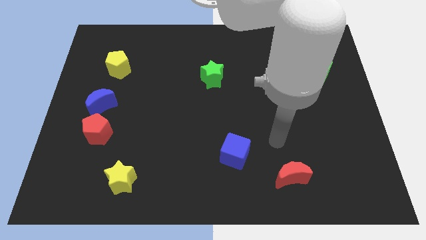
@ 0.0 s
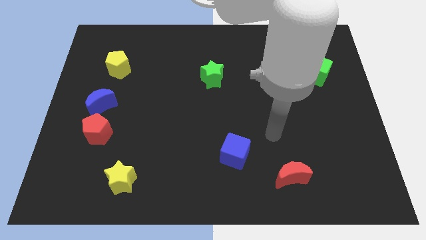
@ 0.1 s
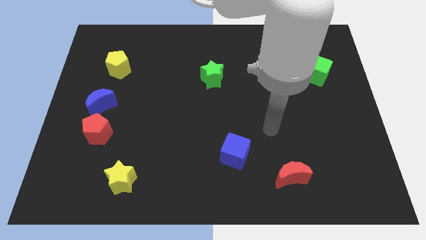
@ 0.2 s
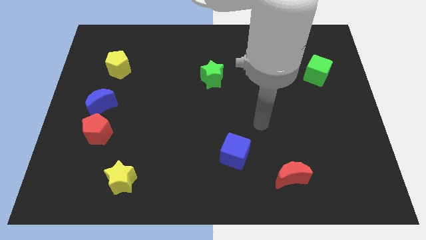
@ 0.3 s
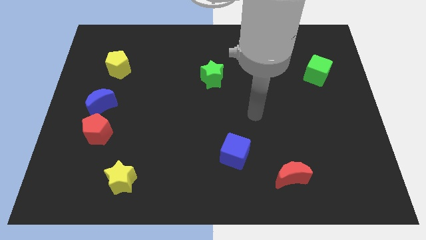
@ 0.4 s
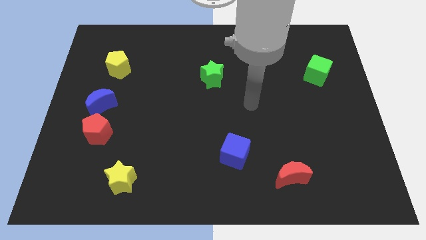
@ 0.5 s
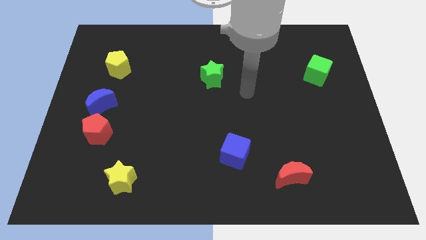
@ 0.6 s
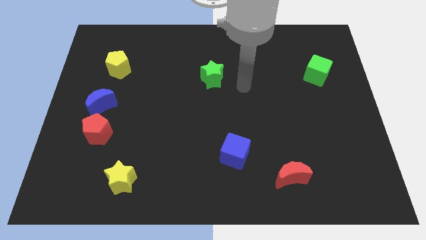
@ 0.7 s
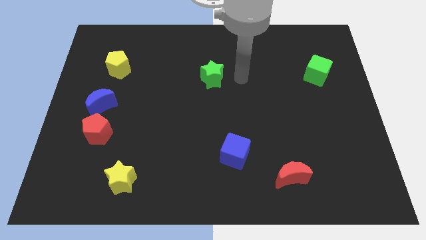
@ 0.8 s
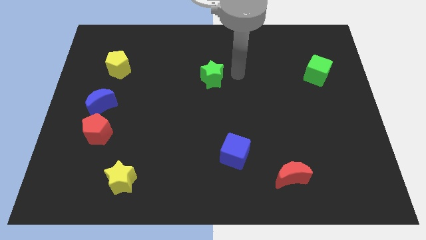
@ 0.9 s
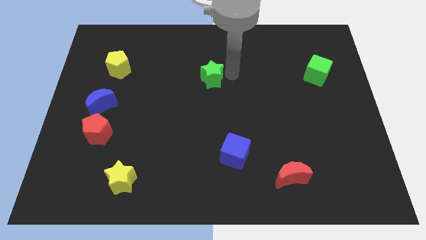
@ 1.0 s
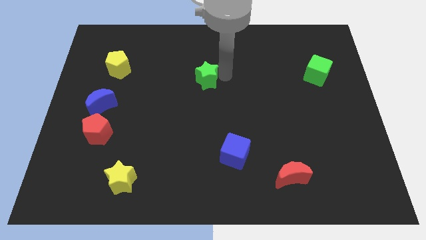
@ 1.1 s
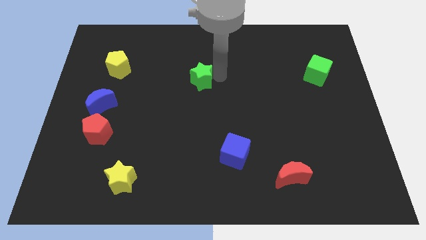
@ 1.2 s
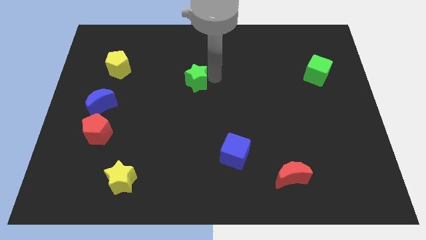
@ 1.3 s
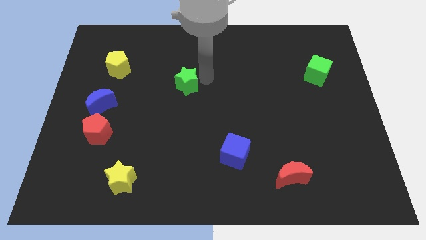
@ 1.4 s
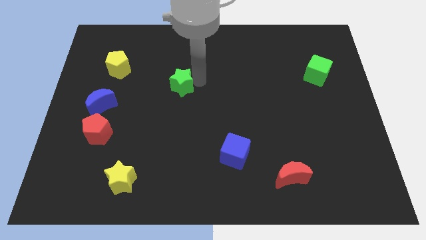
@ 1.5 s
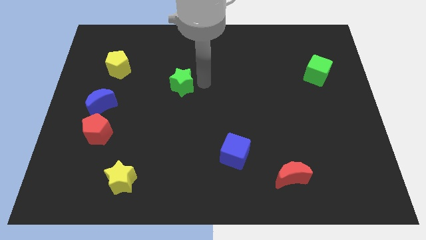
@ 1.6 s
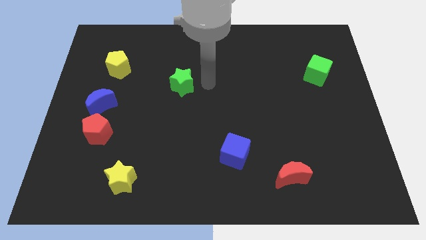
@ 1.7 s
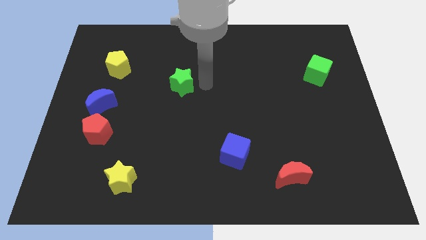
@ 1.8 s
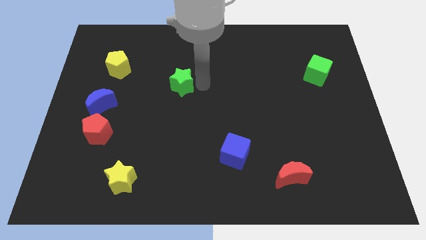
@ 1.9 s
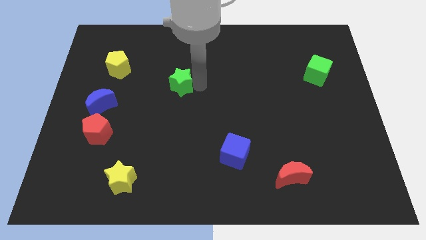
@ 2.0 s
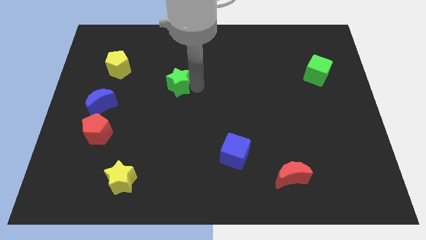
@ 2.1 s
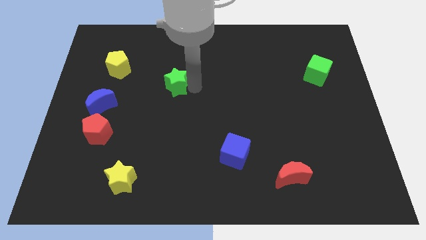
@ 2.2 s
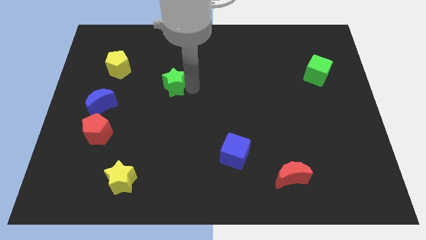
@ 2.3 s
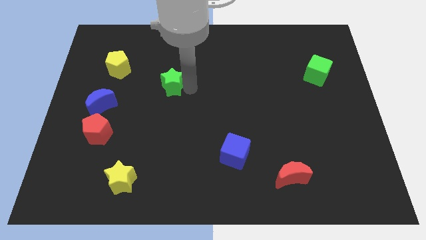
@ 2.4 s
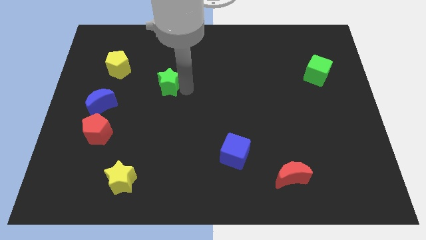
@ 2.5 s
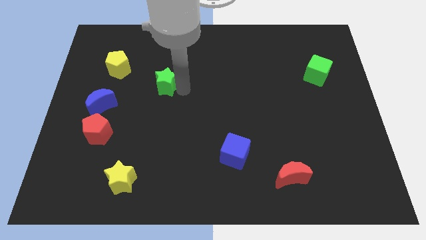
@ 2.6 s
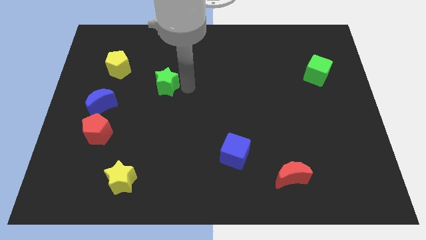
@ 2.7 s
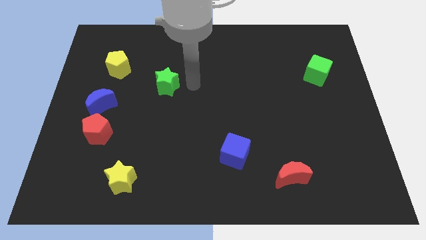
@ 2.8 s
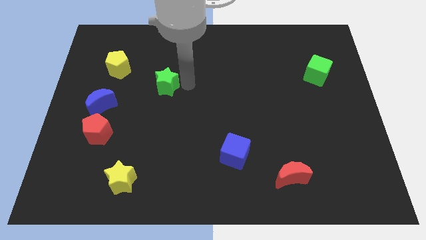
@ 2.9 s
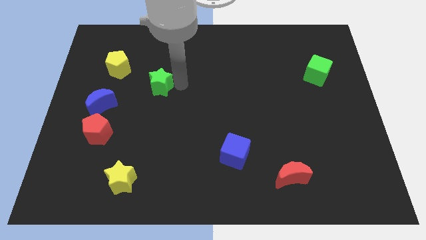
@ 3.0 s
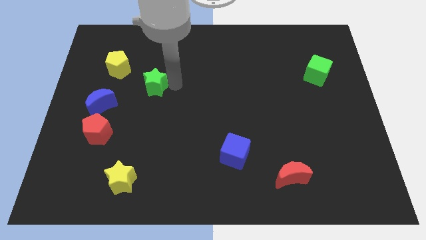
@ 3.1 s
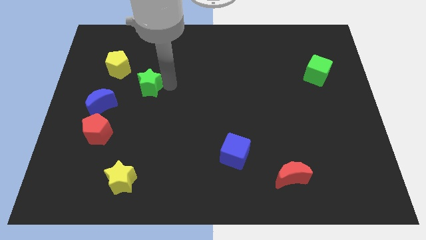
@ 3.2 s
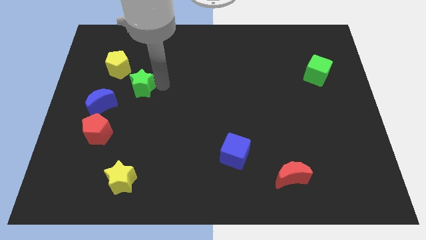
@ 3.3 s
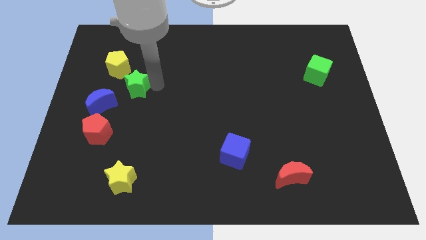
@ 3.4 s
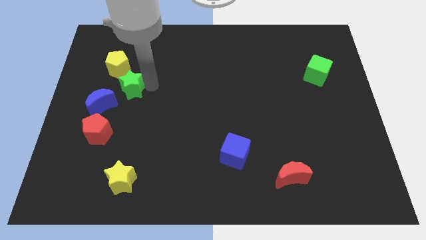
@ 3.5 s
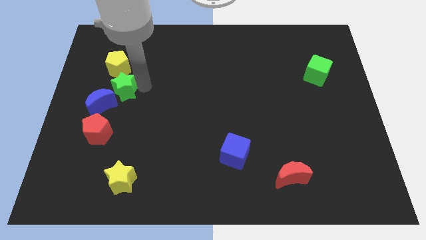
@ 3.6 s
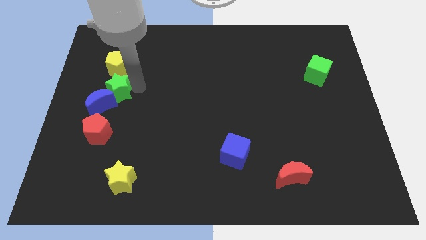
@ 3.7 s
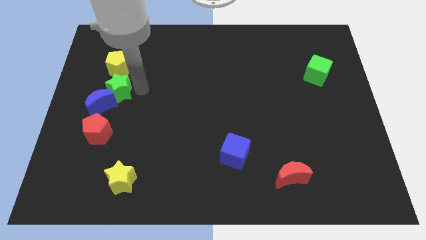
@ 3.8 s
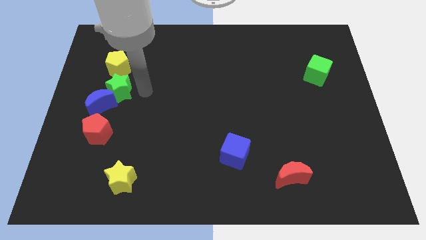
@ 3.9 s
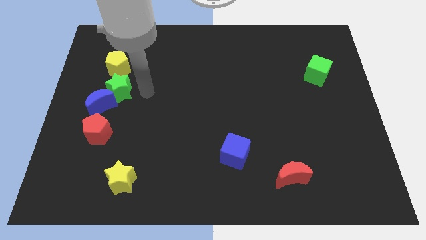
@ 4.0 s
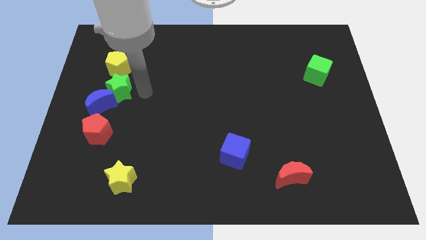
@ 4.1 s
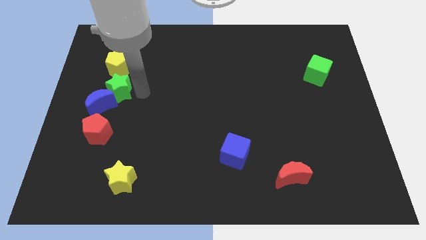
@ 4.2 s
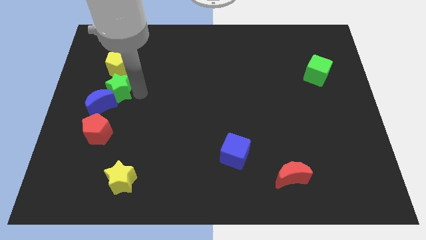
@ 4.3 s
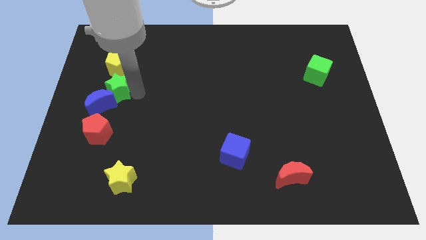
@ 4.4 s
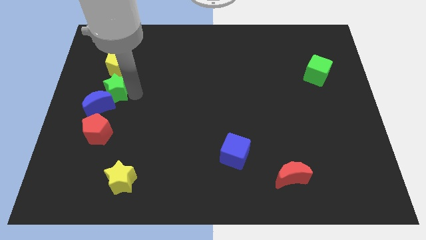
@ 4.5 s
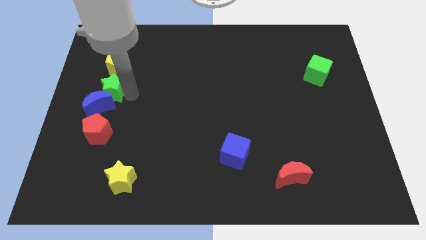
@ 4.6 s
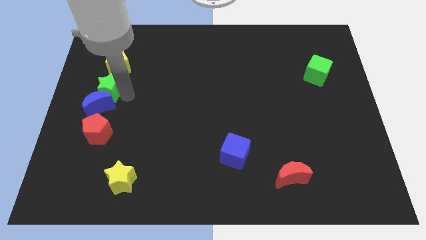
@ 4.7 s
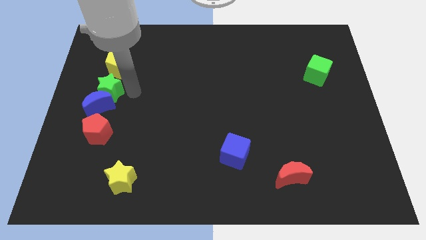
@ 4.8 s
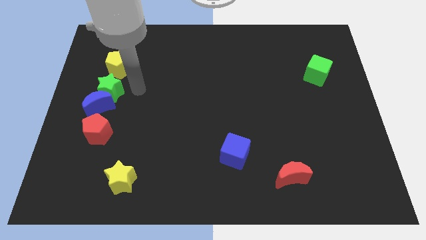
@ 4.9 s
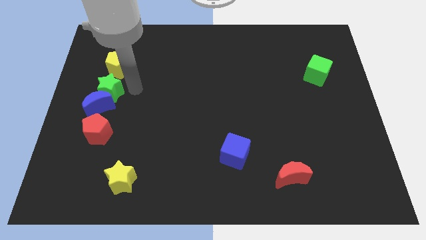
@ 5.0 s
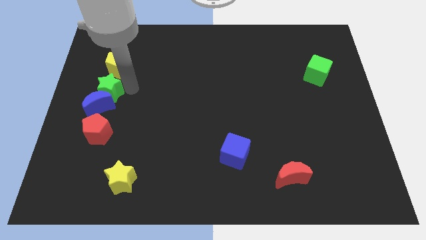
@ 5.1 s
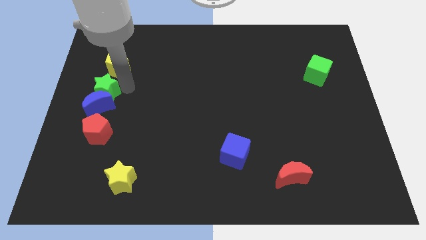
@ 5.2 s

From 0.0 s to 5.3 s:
move the green star to the left side of the board

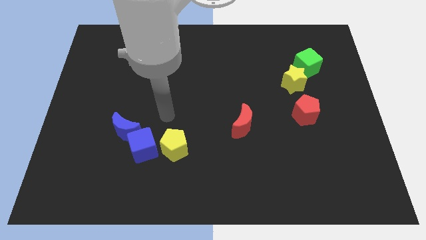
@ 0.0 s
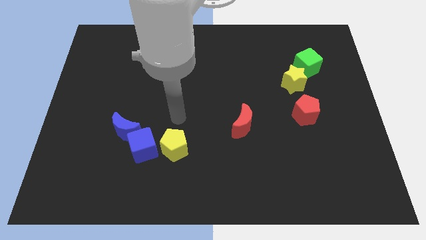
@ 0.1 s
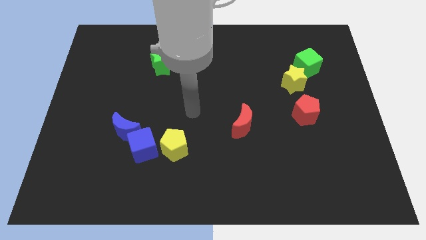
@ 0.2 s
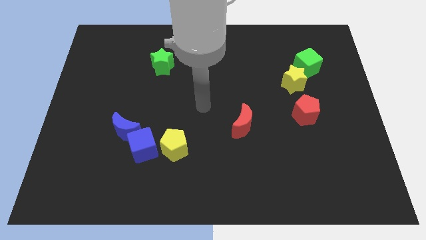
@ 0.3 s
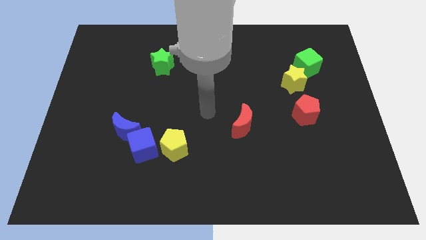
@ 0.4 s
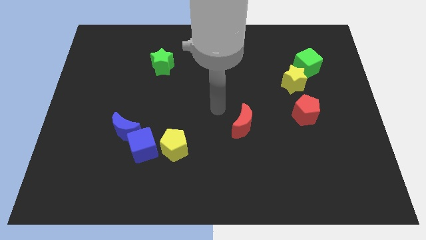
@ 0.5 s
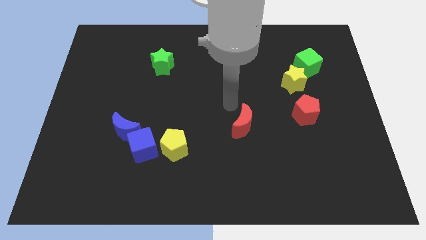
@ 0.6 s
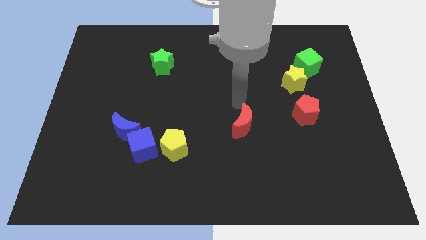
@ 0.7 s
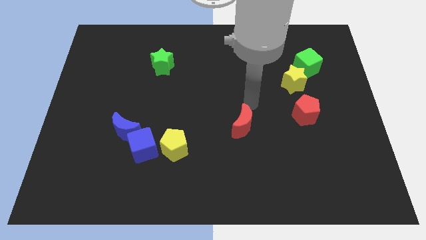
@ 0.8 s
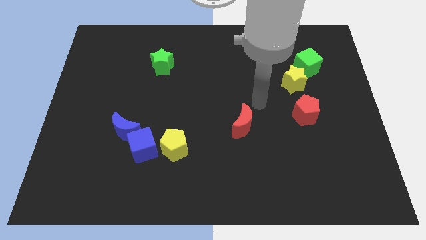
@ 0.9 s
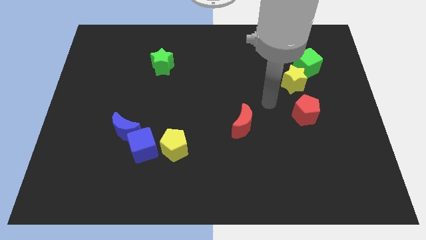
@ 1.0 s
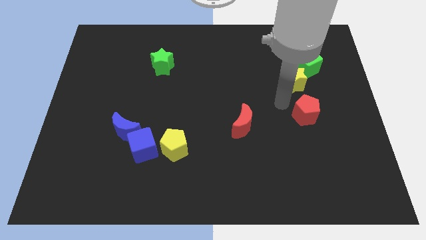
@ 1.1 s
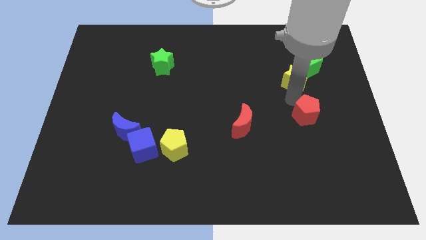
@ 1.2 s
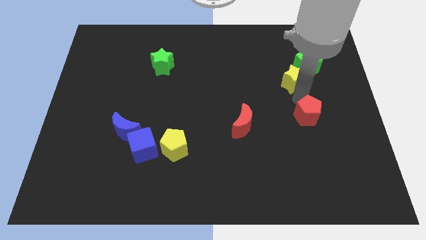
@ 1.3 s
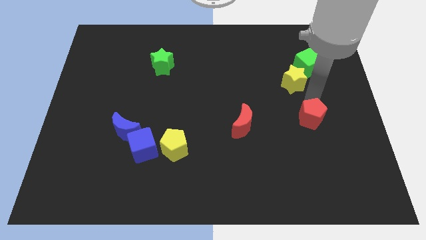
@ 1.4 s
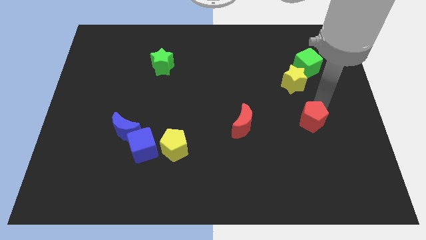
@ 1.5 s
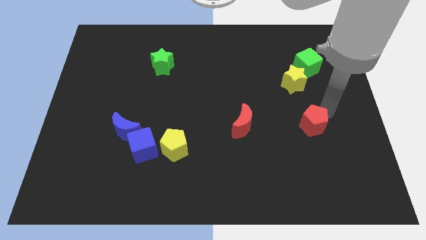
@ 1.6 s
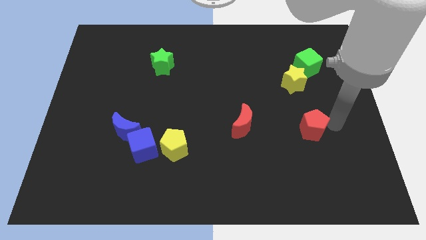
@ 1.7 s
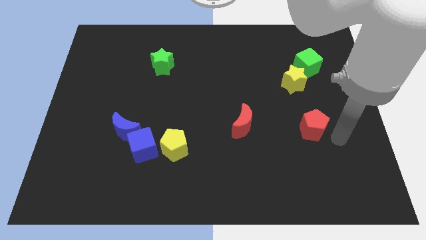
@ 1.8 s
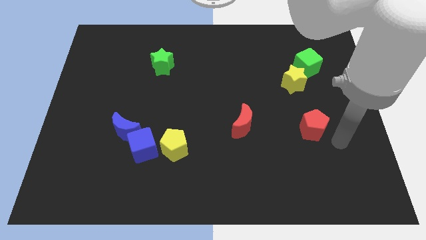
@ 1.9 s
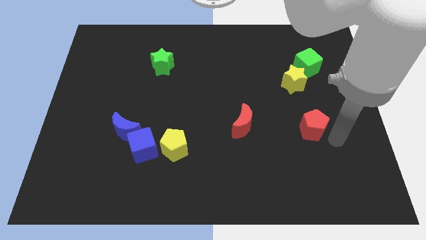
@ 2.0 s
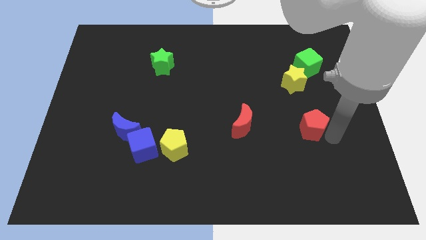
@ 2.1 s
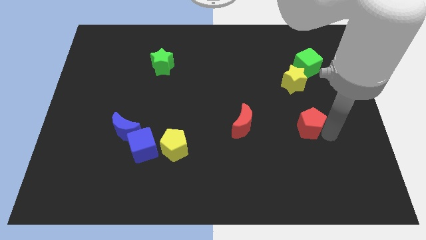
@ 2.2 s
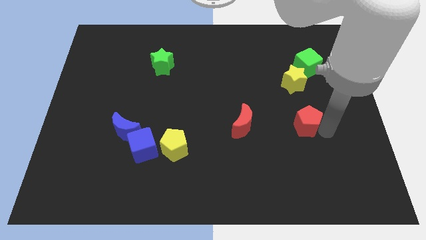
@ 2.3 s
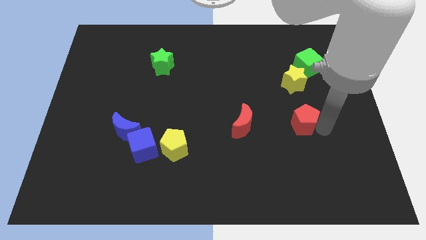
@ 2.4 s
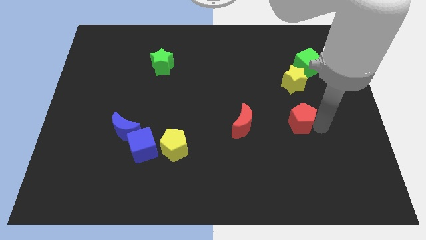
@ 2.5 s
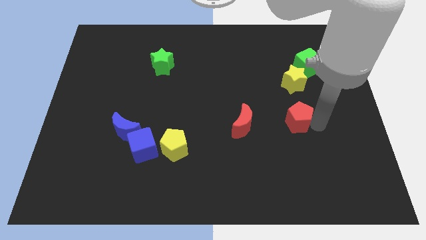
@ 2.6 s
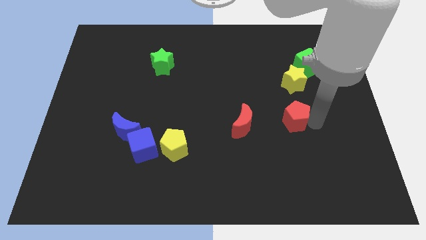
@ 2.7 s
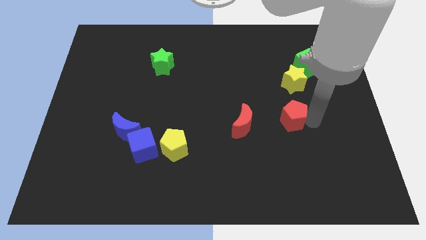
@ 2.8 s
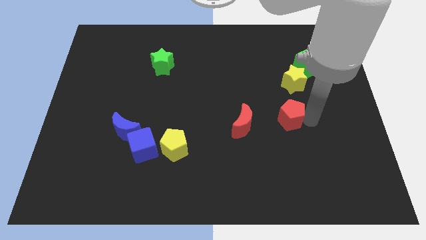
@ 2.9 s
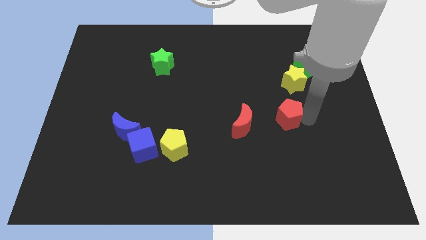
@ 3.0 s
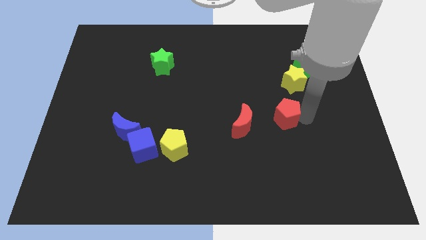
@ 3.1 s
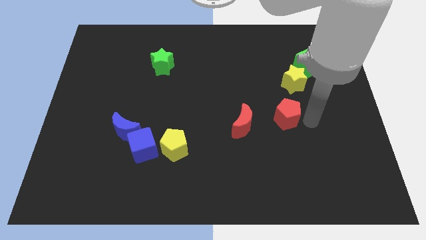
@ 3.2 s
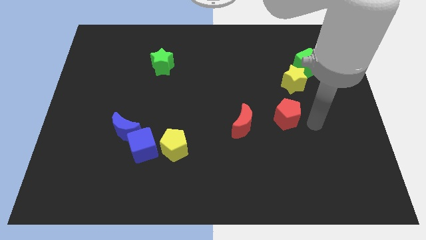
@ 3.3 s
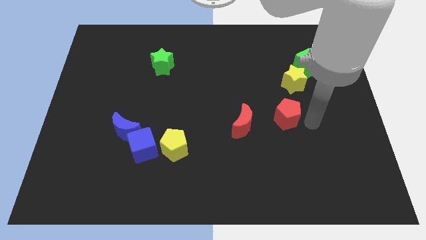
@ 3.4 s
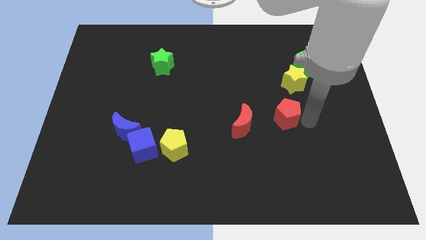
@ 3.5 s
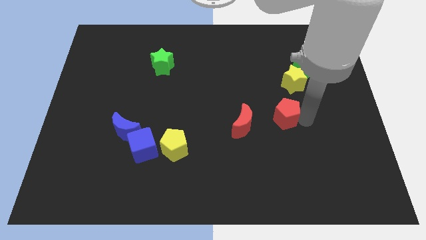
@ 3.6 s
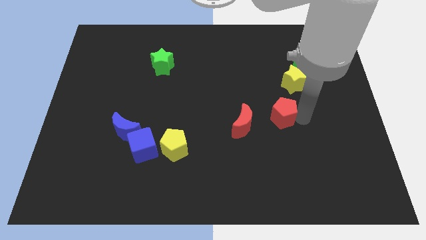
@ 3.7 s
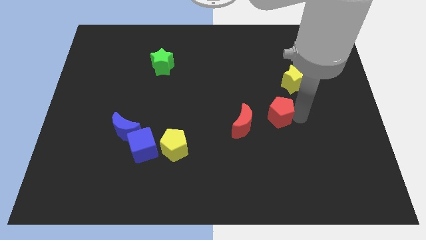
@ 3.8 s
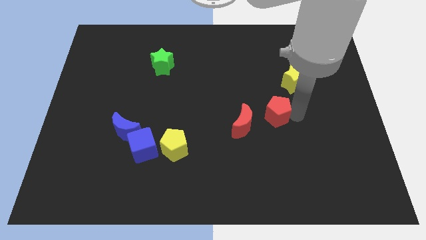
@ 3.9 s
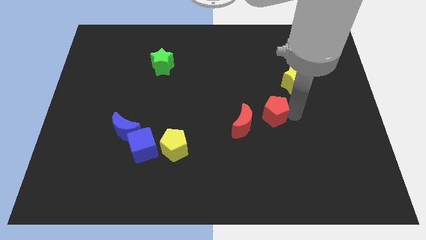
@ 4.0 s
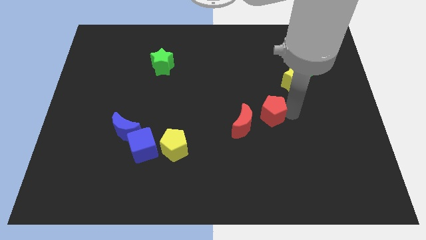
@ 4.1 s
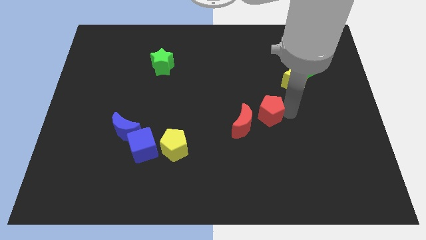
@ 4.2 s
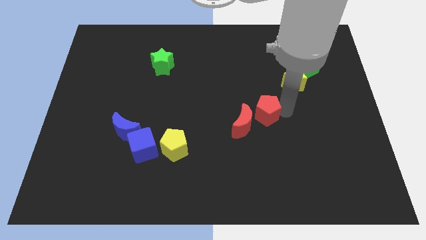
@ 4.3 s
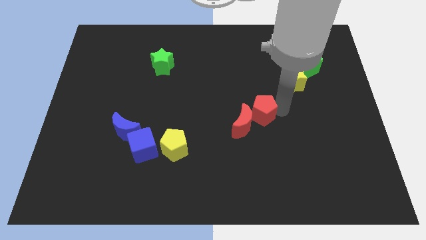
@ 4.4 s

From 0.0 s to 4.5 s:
put the red pentagon to the middle
